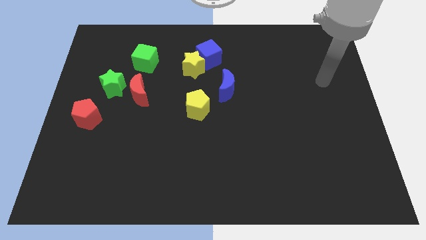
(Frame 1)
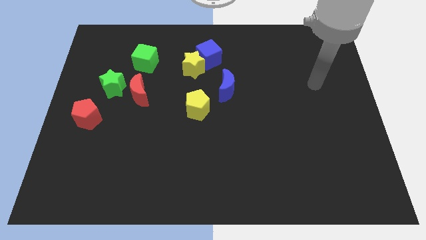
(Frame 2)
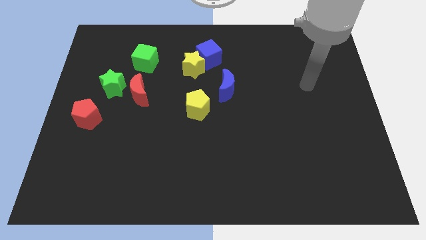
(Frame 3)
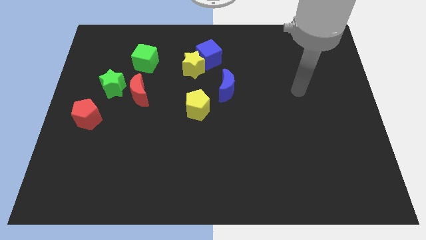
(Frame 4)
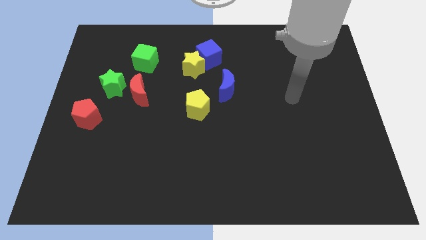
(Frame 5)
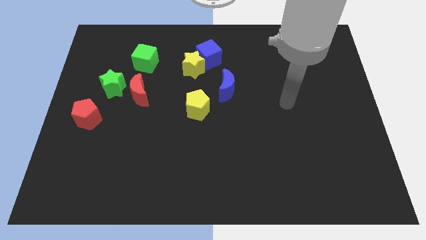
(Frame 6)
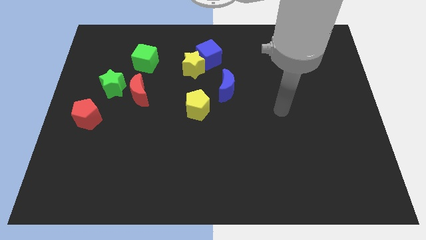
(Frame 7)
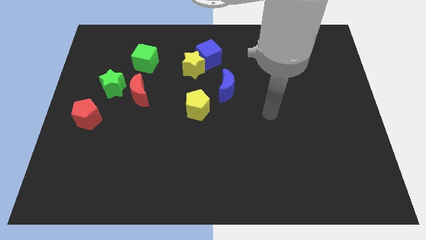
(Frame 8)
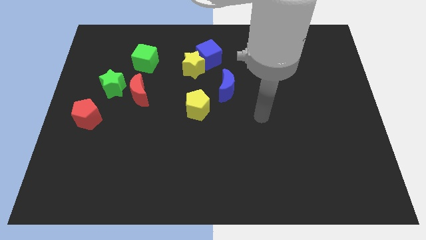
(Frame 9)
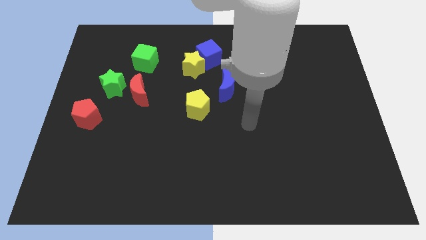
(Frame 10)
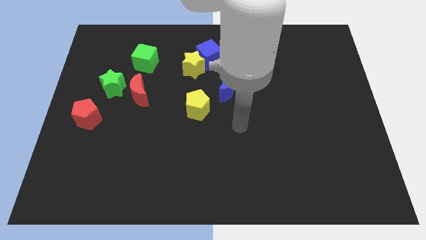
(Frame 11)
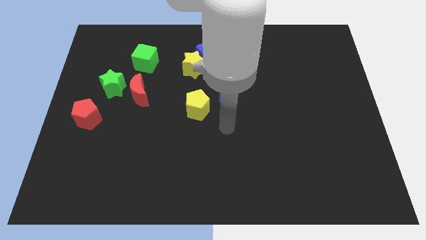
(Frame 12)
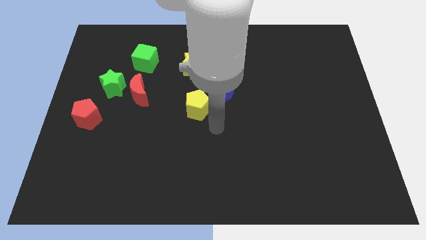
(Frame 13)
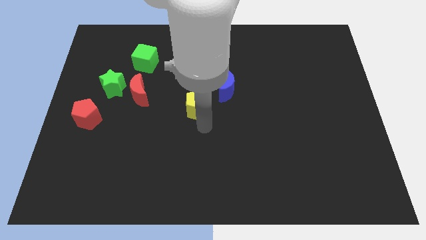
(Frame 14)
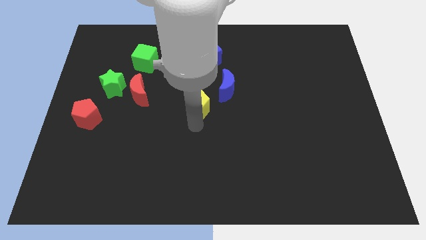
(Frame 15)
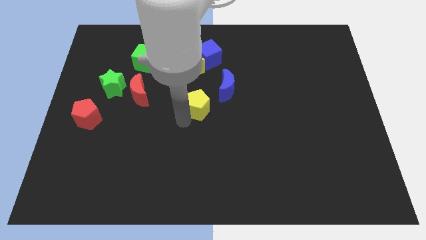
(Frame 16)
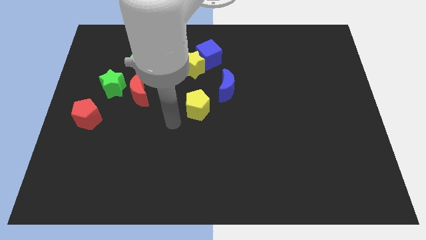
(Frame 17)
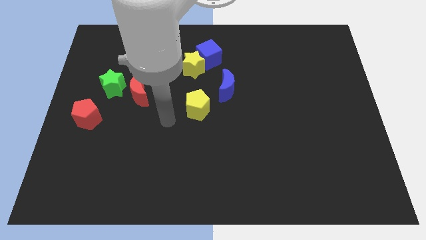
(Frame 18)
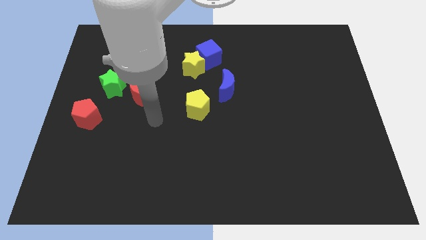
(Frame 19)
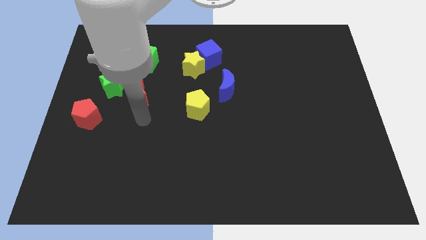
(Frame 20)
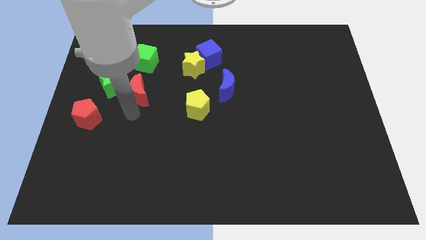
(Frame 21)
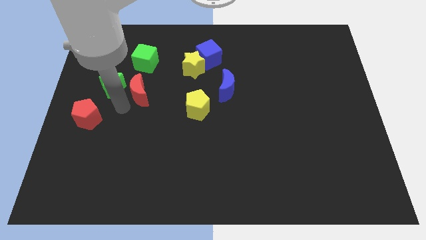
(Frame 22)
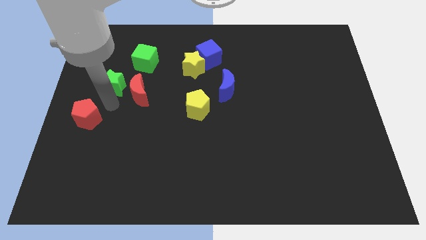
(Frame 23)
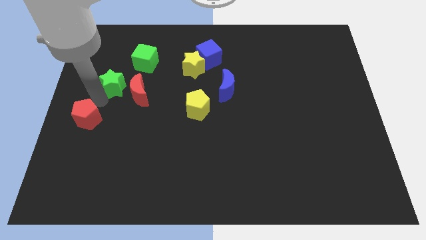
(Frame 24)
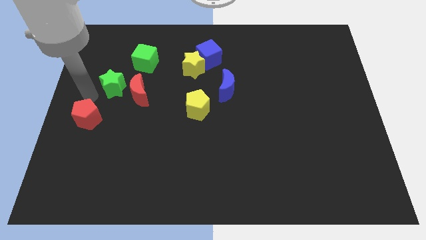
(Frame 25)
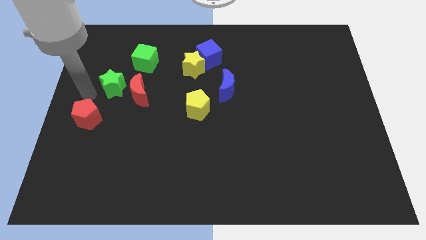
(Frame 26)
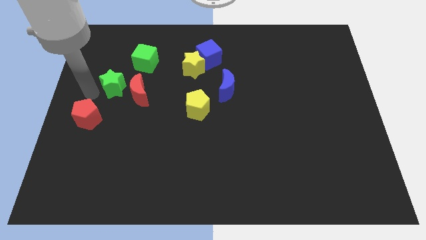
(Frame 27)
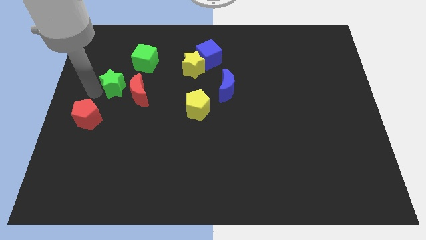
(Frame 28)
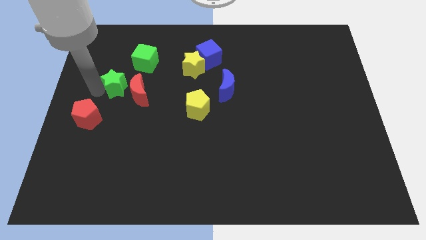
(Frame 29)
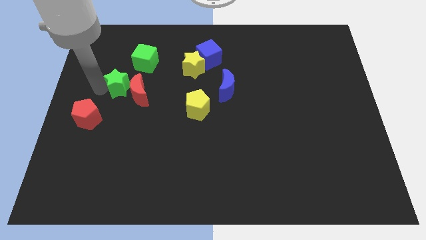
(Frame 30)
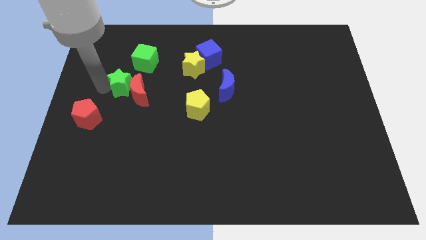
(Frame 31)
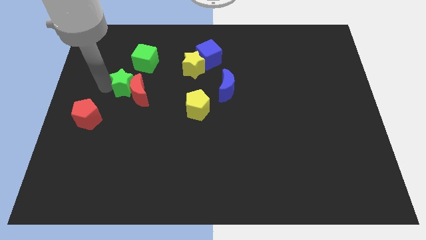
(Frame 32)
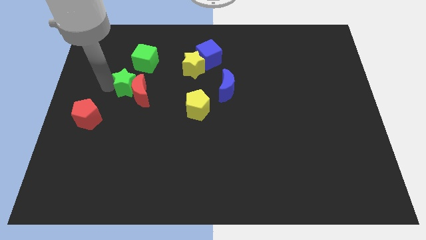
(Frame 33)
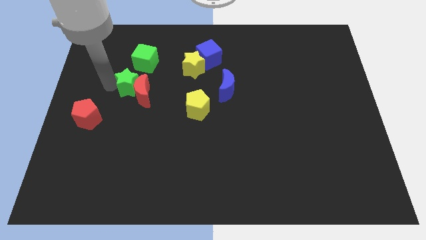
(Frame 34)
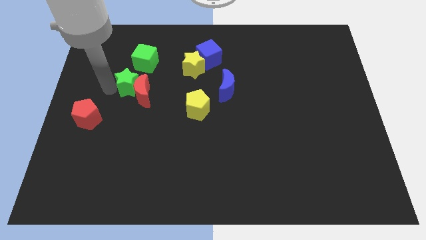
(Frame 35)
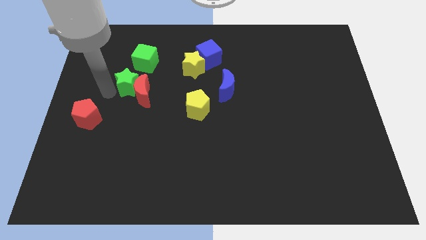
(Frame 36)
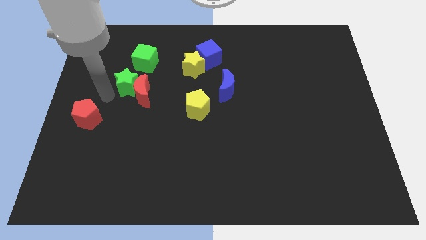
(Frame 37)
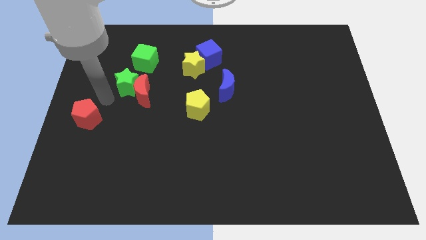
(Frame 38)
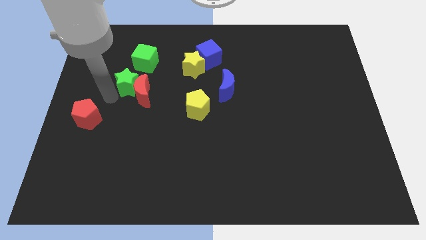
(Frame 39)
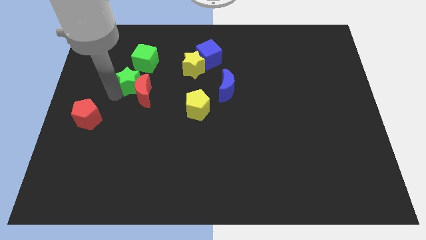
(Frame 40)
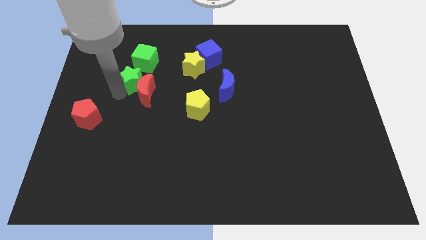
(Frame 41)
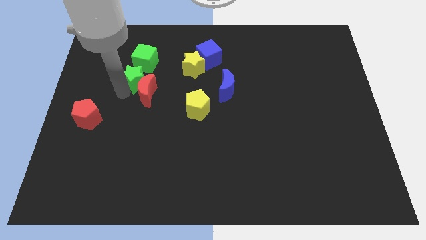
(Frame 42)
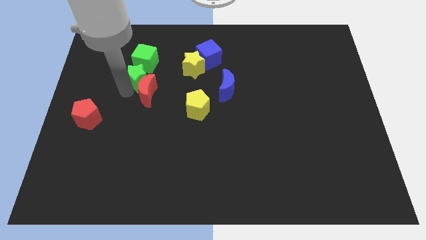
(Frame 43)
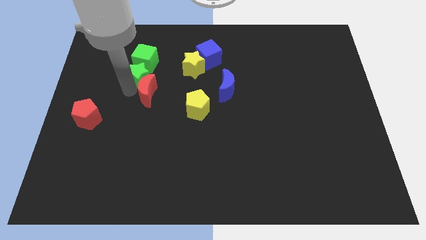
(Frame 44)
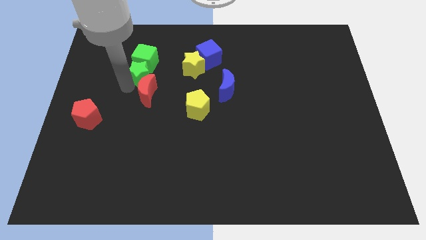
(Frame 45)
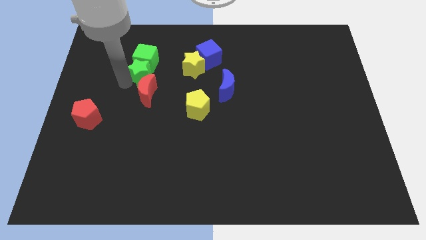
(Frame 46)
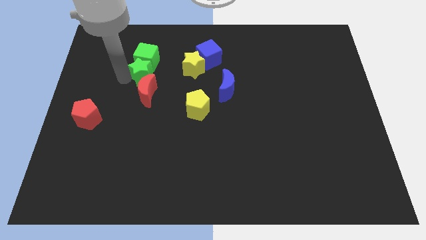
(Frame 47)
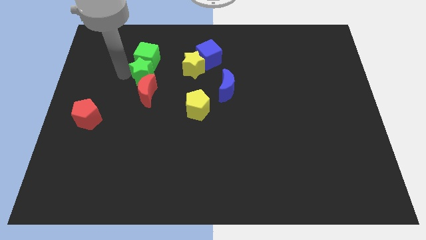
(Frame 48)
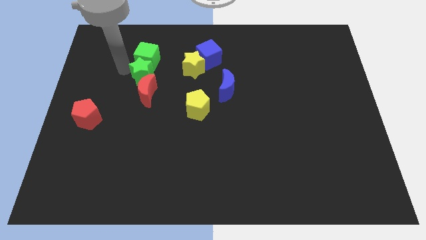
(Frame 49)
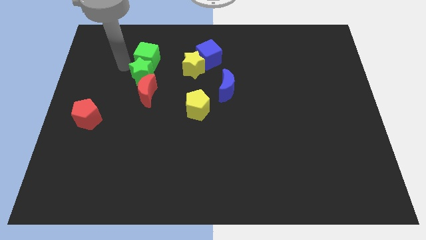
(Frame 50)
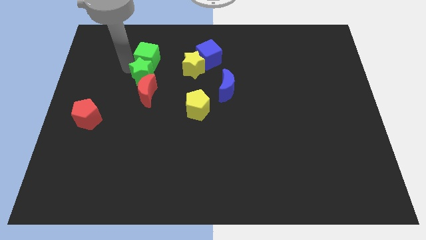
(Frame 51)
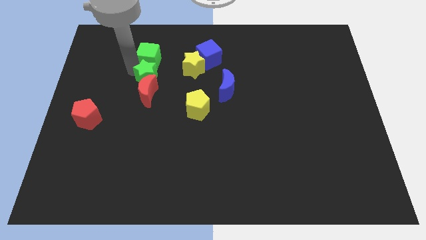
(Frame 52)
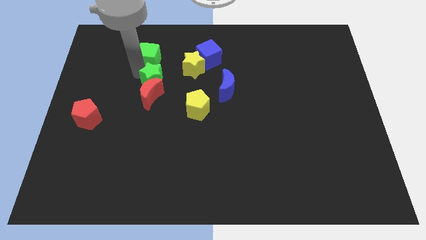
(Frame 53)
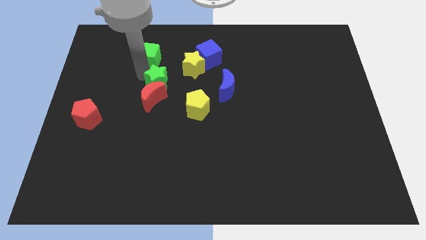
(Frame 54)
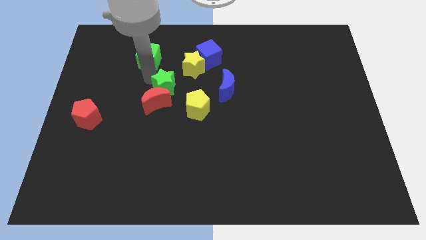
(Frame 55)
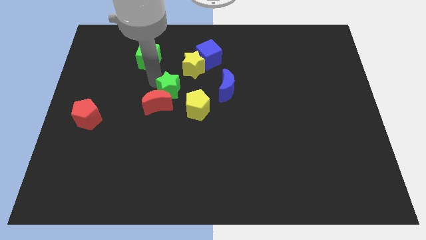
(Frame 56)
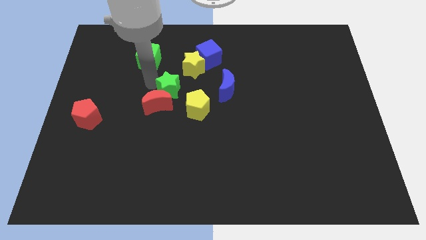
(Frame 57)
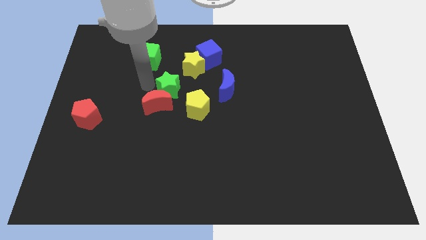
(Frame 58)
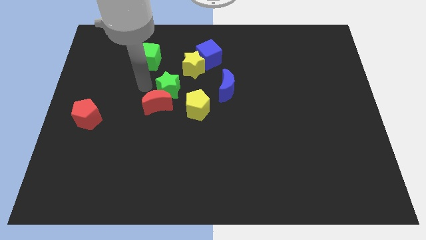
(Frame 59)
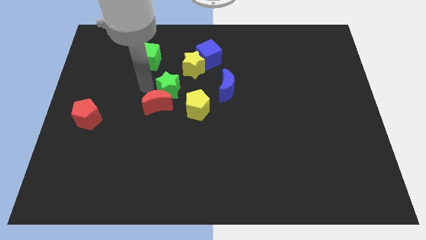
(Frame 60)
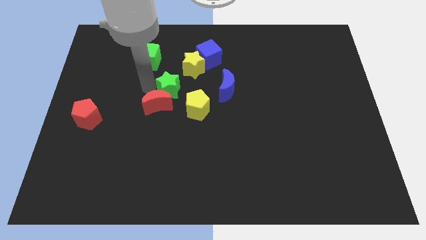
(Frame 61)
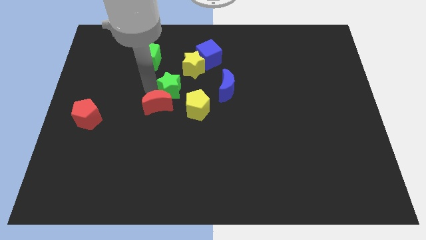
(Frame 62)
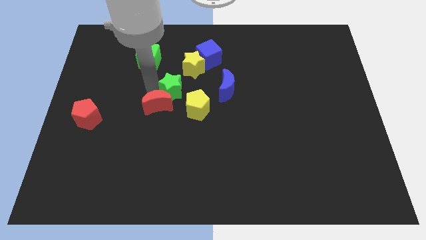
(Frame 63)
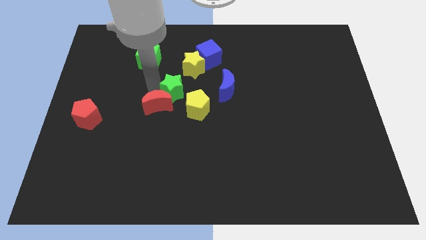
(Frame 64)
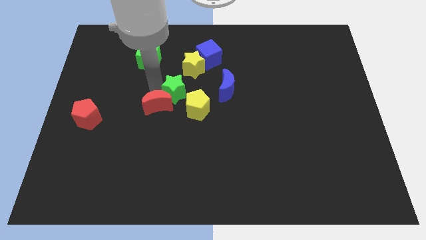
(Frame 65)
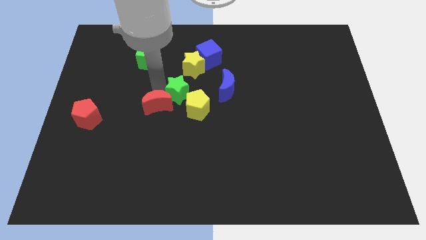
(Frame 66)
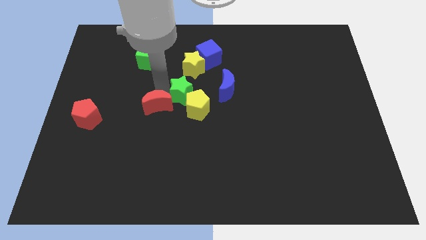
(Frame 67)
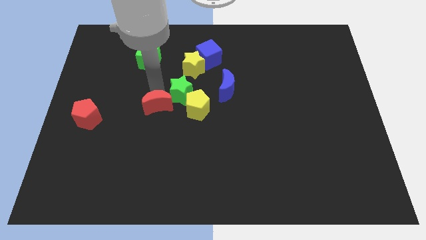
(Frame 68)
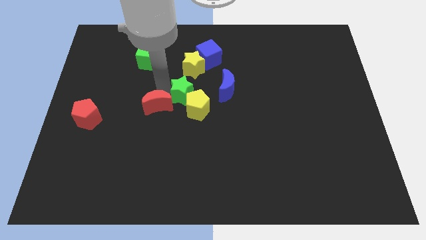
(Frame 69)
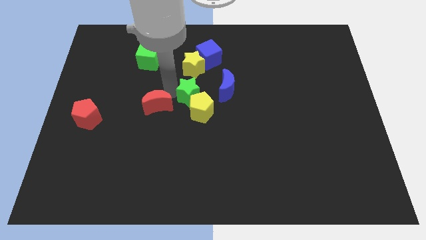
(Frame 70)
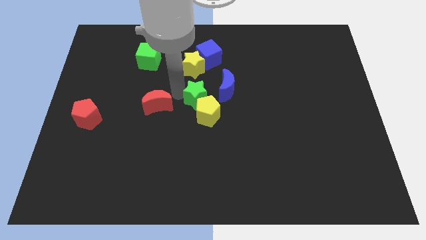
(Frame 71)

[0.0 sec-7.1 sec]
push the green star to the right

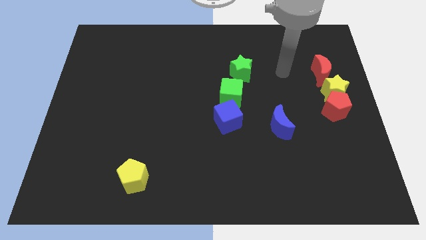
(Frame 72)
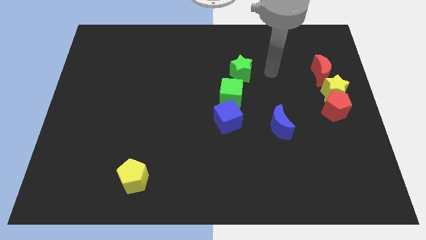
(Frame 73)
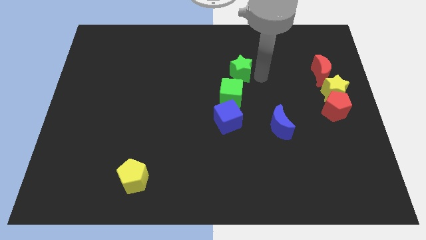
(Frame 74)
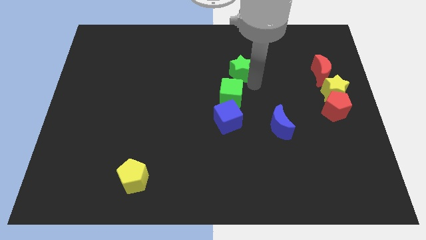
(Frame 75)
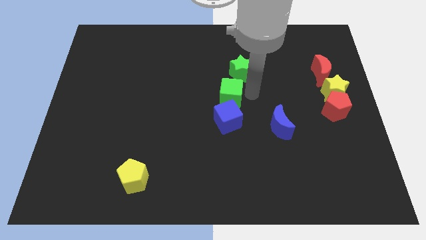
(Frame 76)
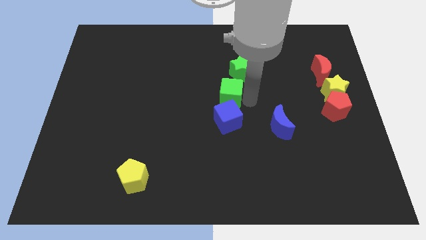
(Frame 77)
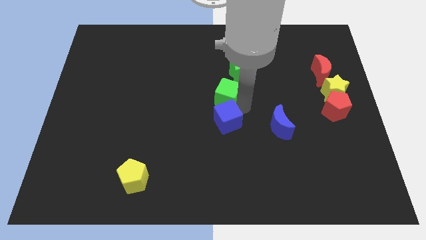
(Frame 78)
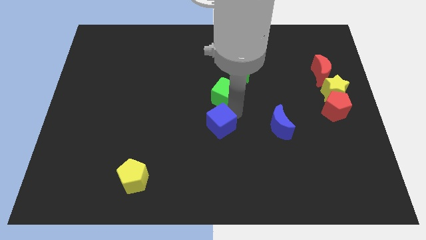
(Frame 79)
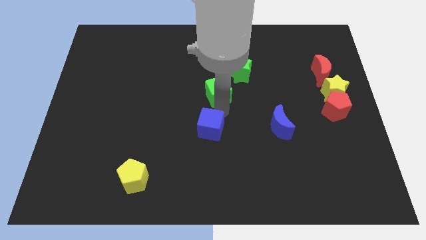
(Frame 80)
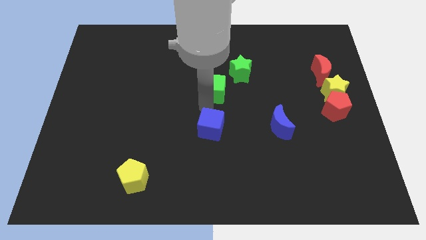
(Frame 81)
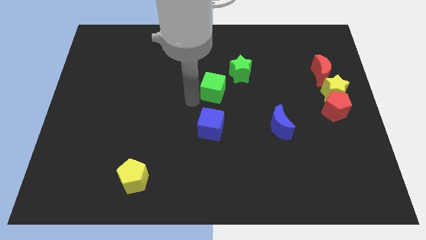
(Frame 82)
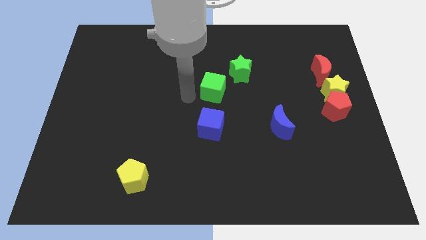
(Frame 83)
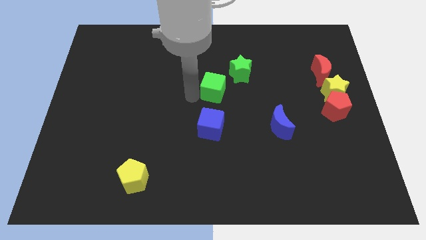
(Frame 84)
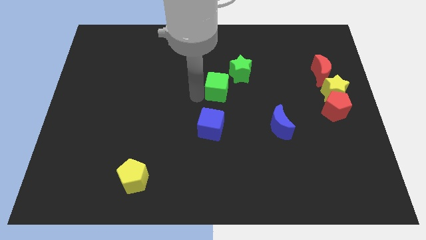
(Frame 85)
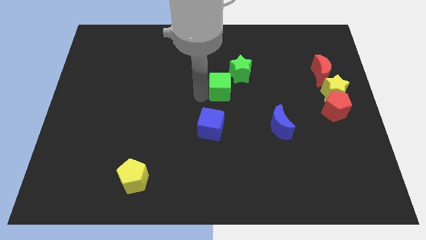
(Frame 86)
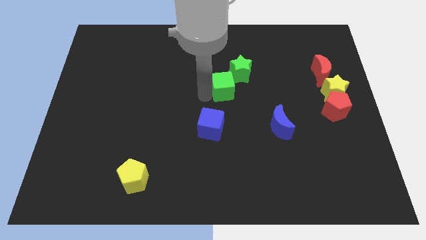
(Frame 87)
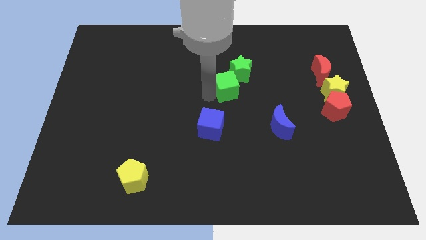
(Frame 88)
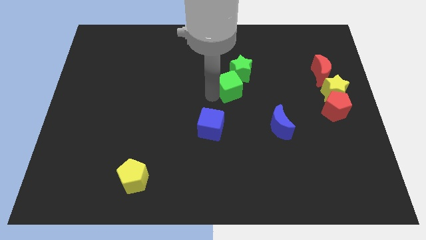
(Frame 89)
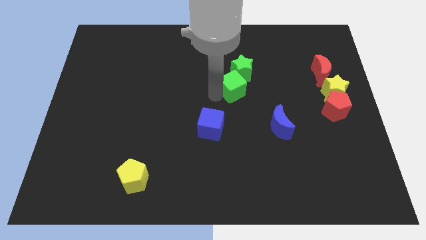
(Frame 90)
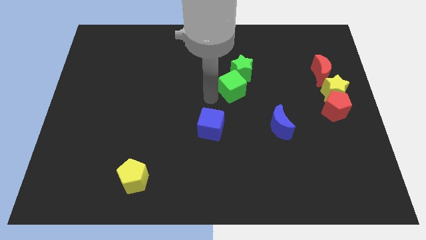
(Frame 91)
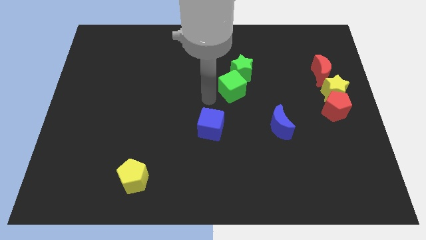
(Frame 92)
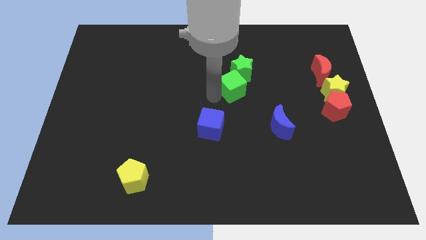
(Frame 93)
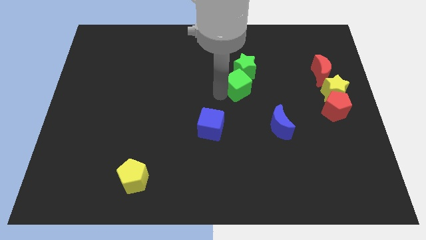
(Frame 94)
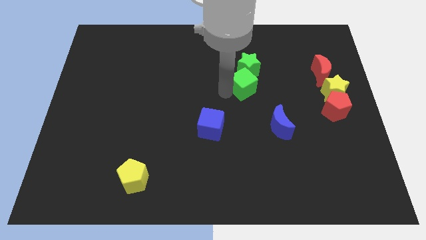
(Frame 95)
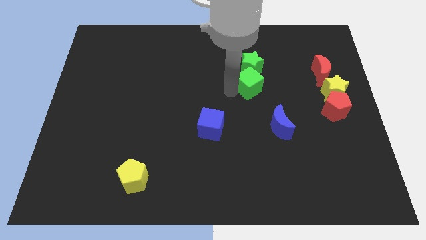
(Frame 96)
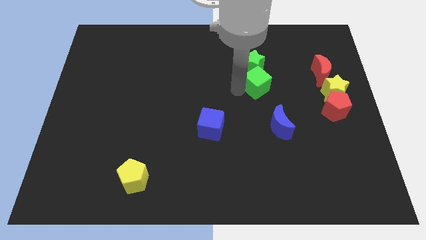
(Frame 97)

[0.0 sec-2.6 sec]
slightly move the green cube diagonally upwards and to the right
